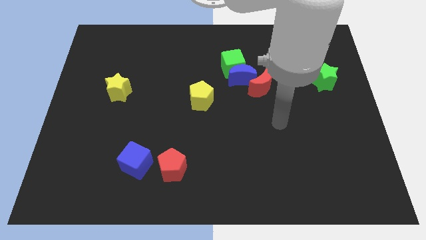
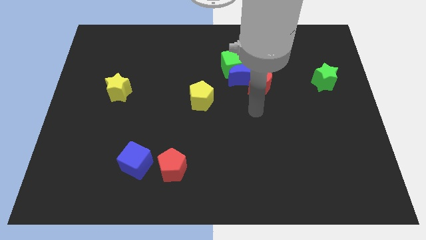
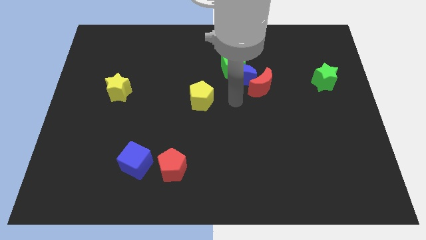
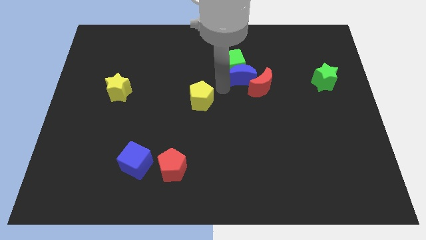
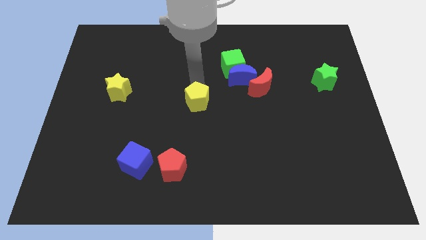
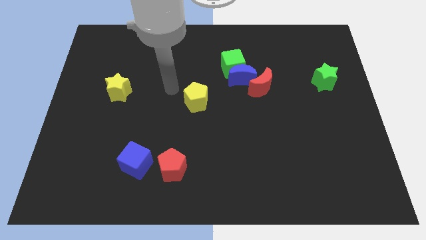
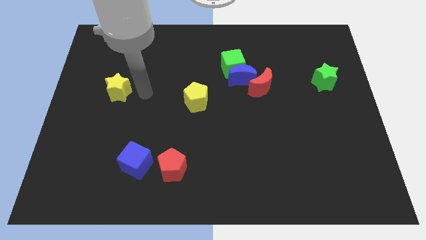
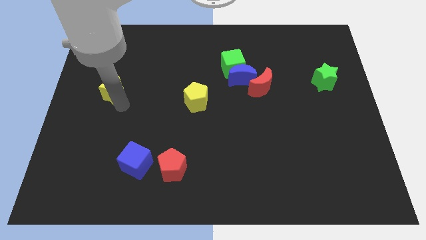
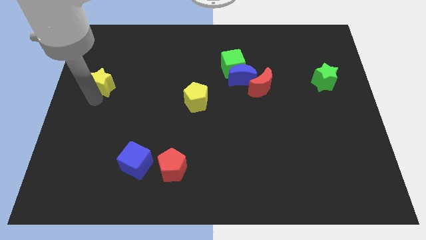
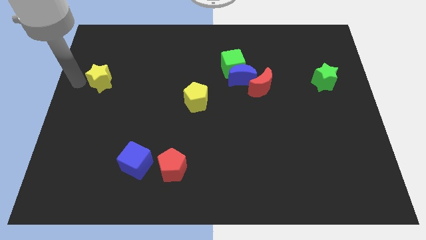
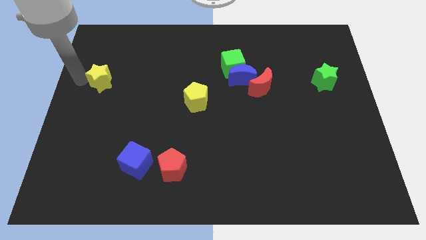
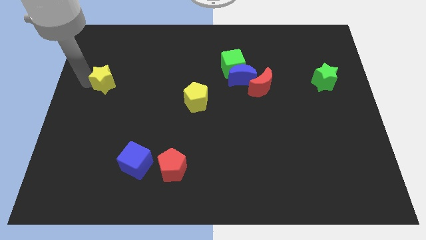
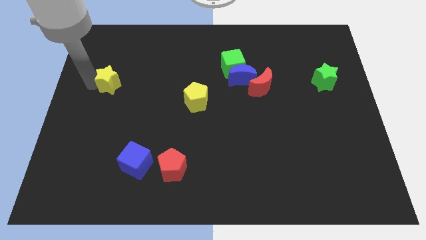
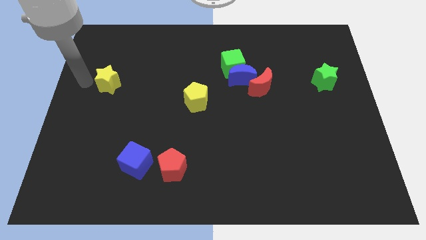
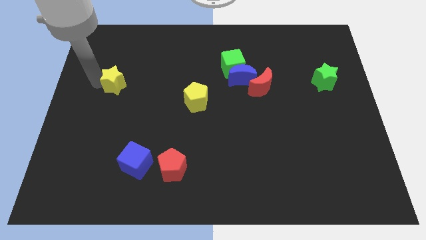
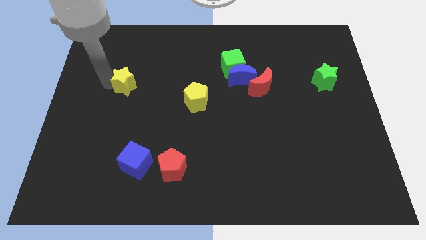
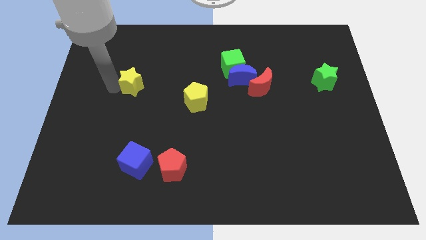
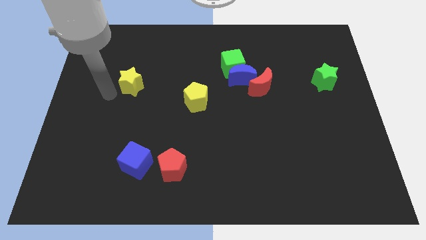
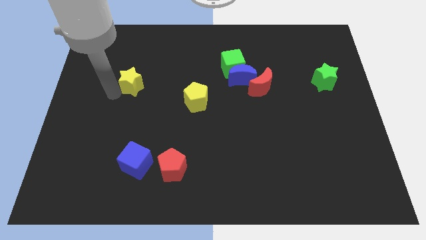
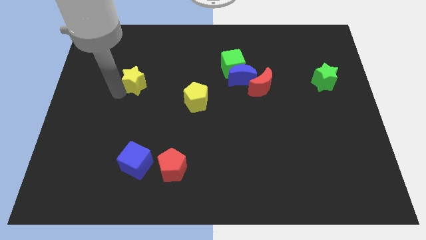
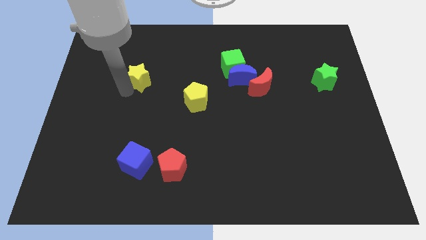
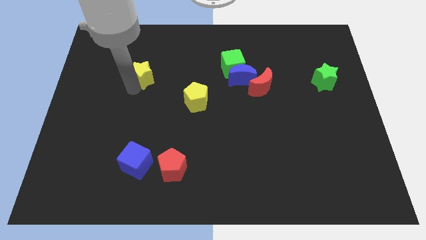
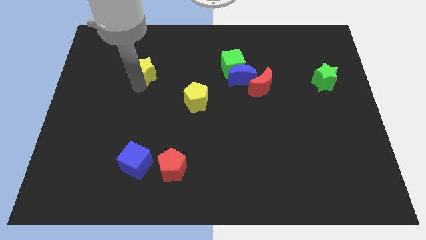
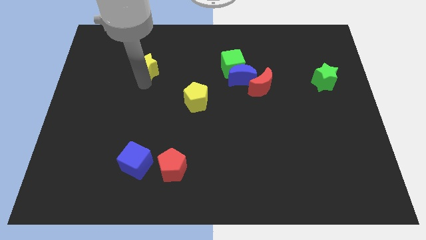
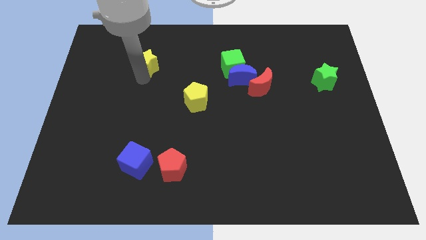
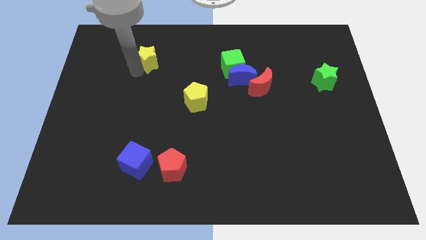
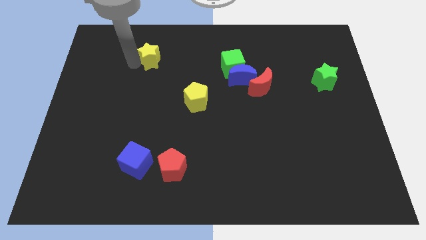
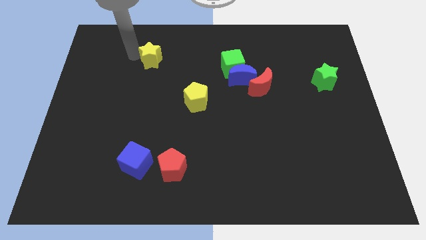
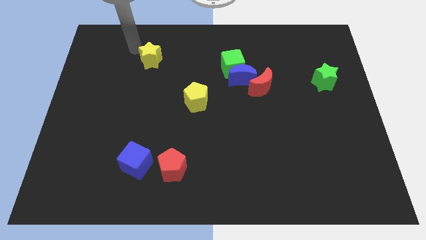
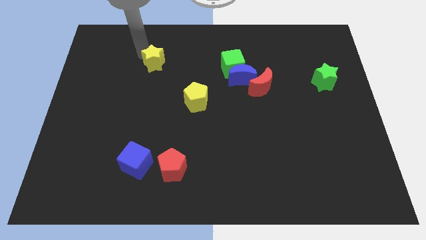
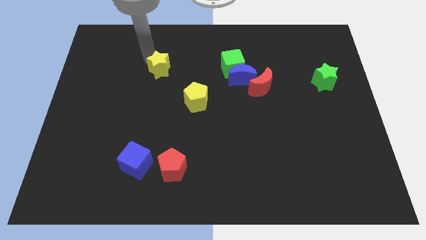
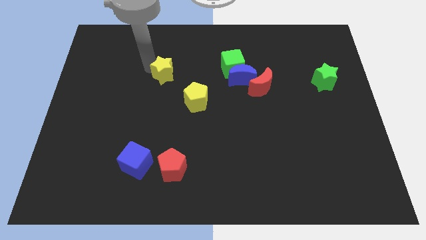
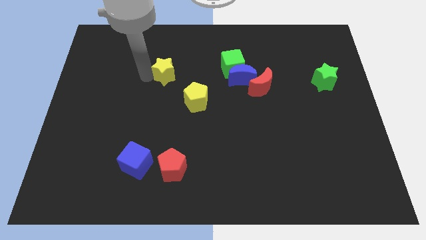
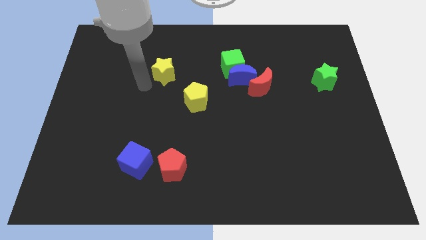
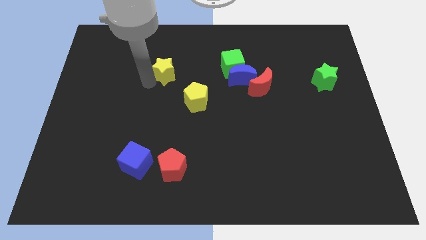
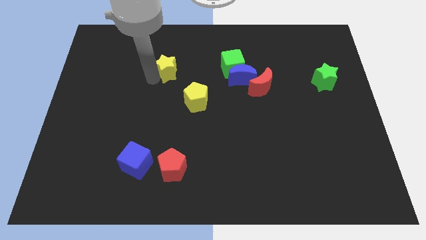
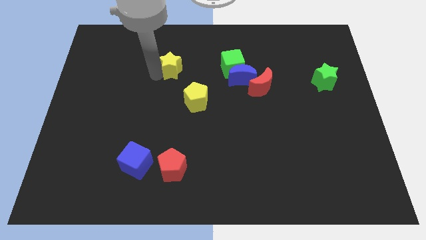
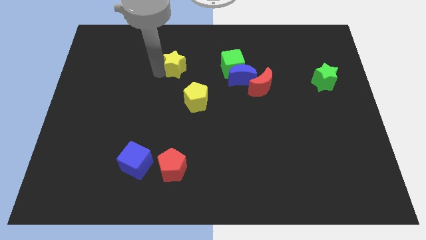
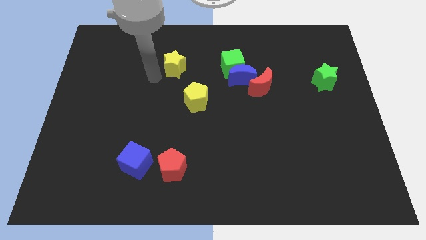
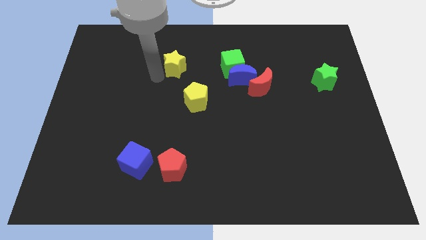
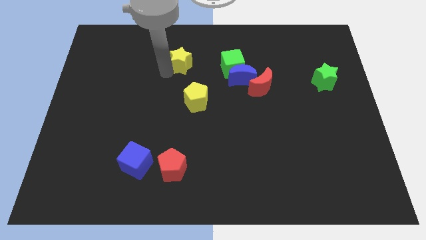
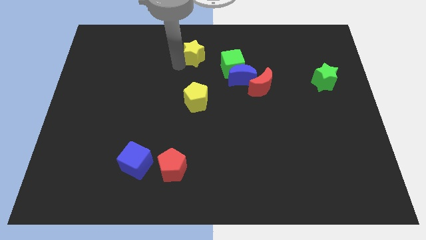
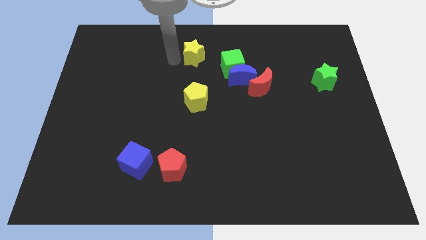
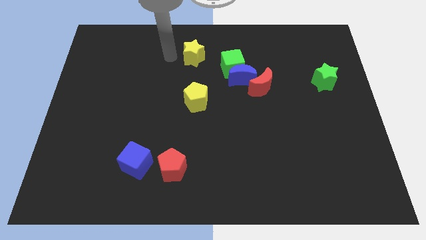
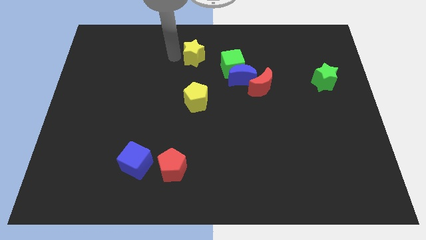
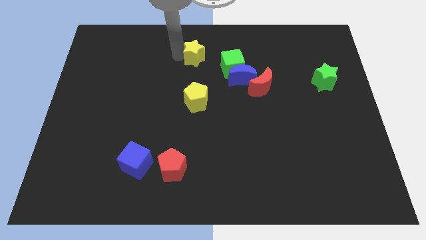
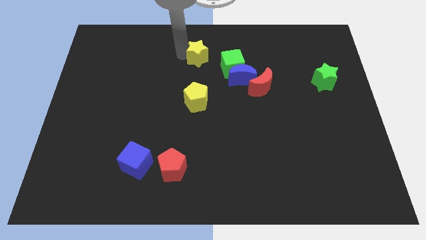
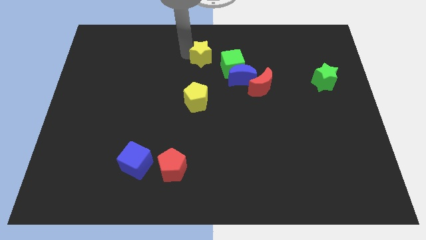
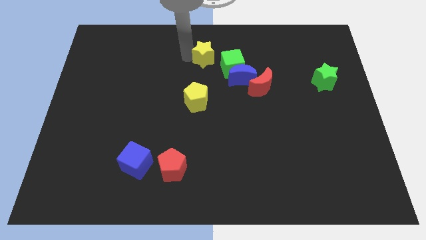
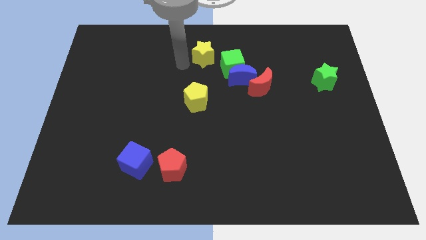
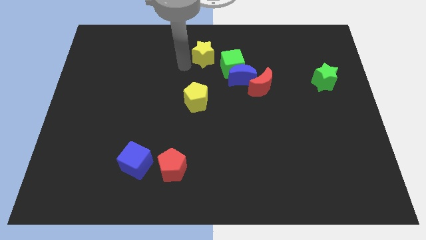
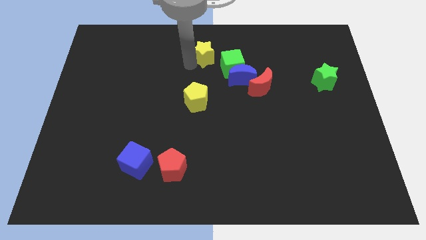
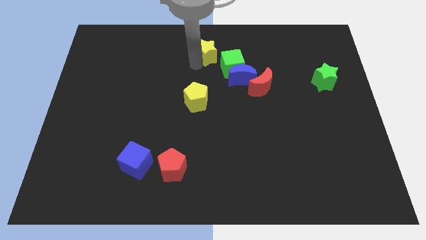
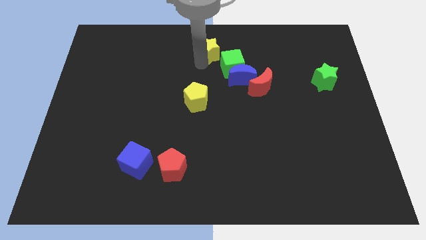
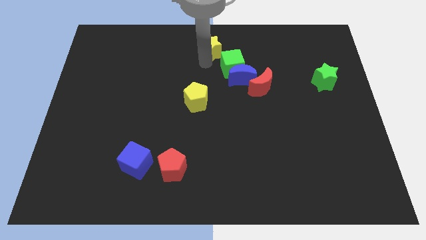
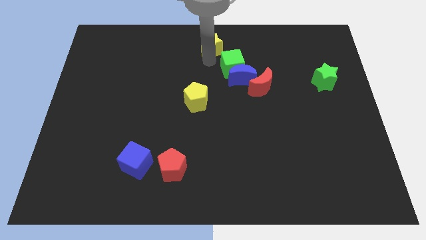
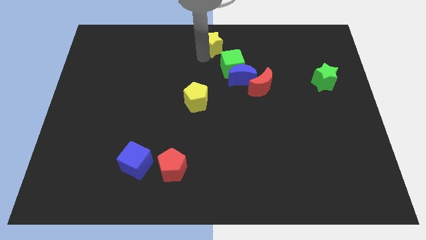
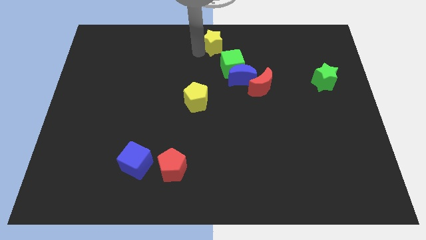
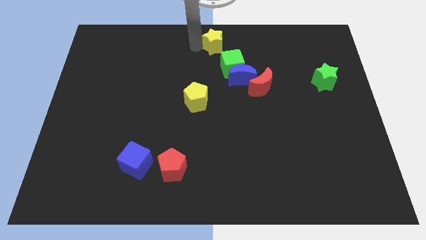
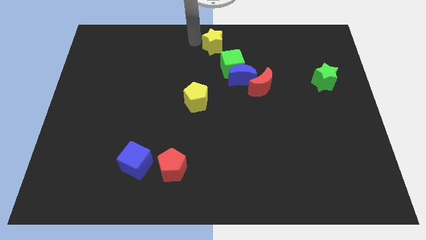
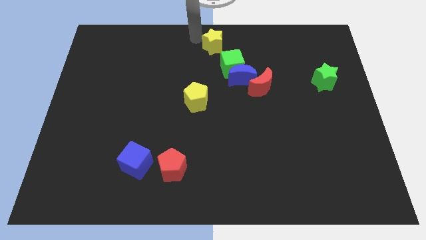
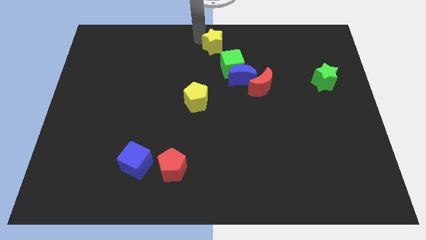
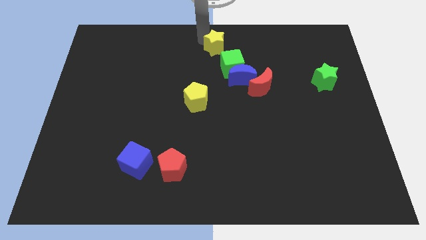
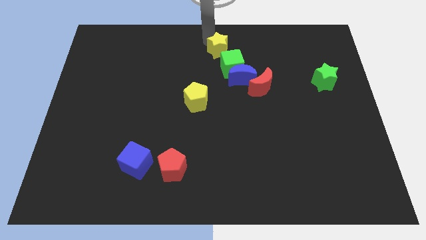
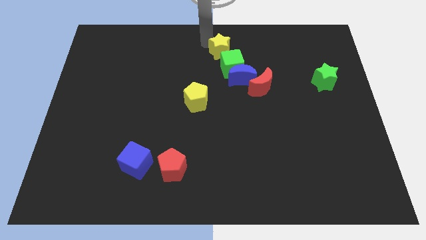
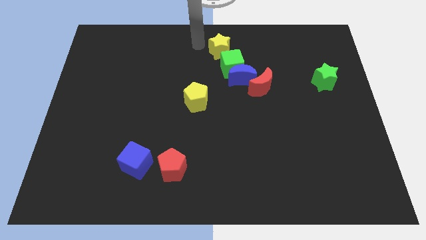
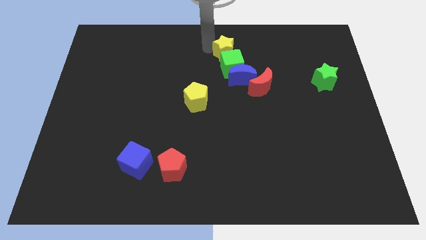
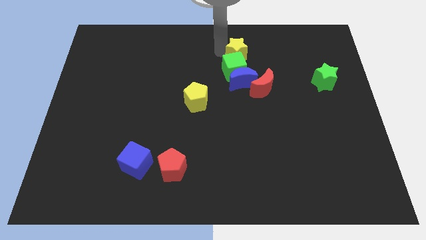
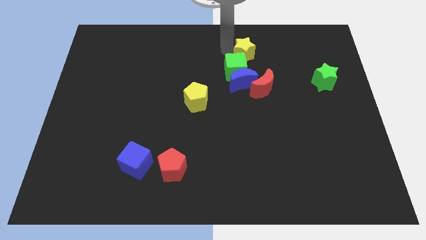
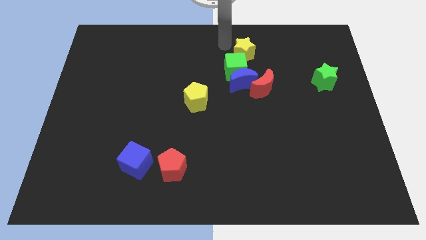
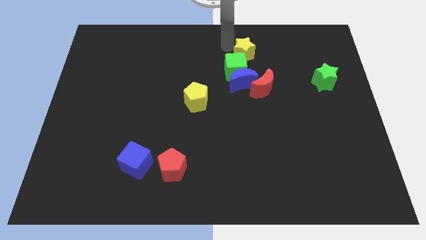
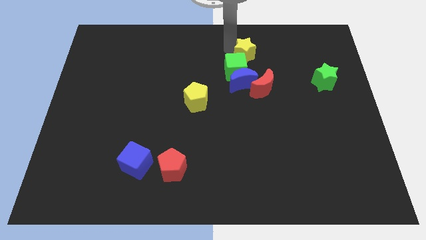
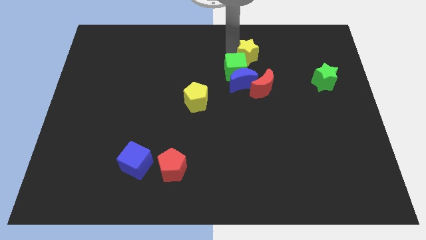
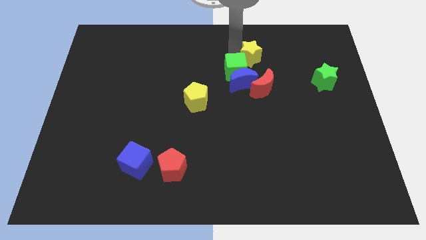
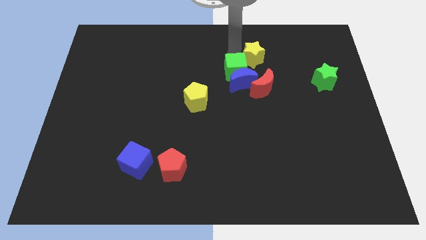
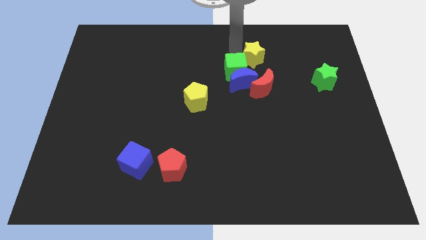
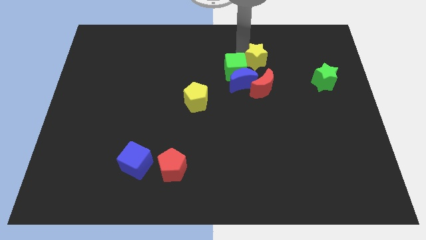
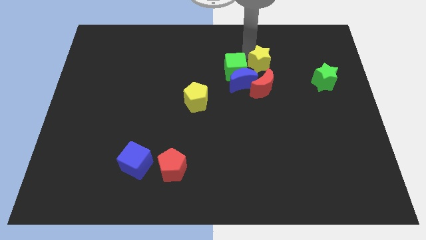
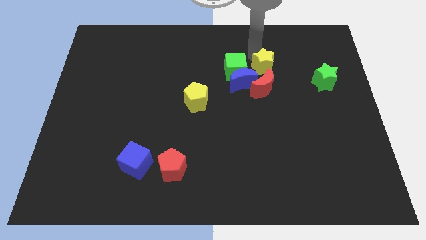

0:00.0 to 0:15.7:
push the yellow star to the top right side of the red moon
